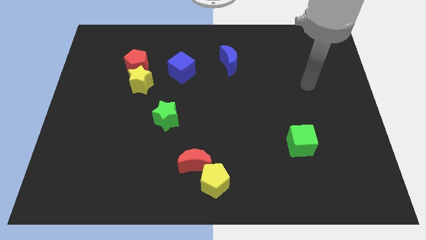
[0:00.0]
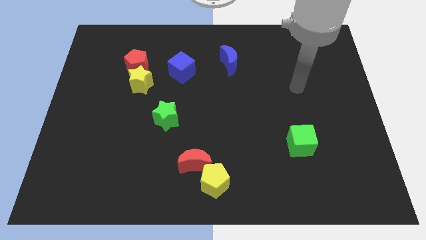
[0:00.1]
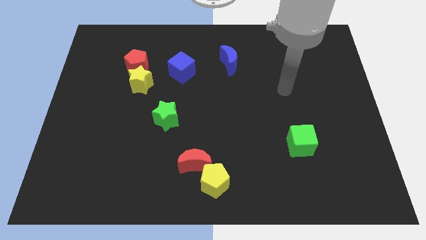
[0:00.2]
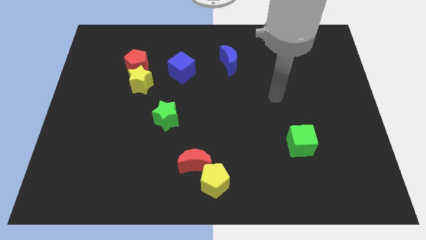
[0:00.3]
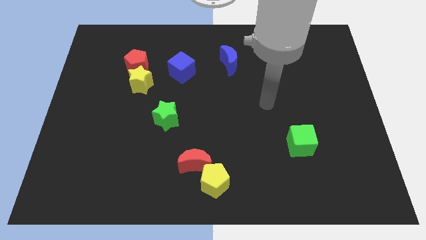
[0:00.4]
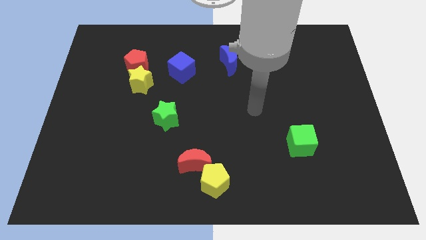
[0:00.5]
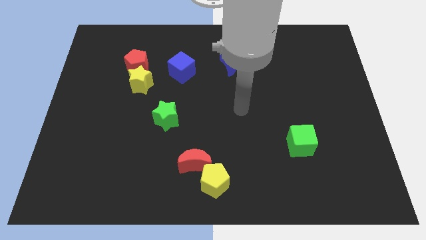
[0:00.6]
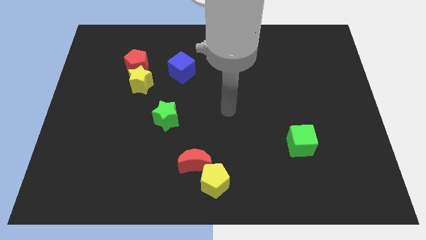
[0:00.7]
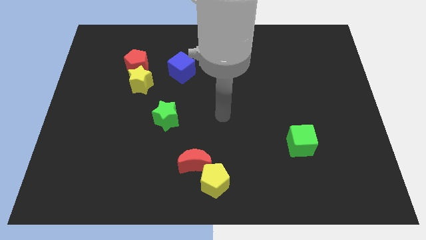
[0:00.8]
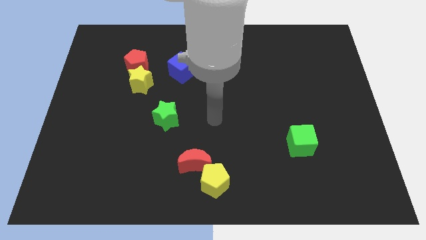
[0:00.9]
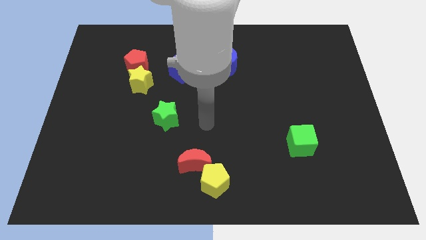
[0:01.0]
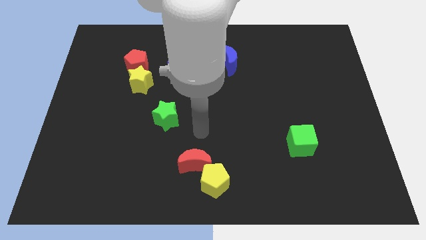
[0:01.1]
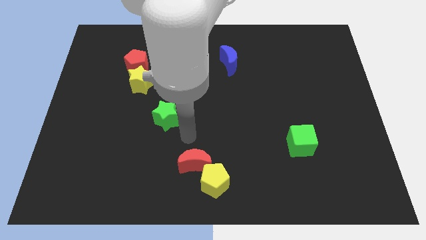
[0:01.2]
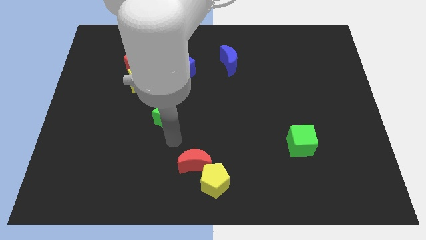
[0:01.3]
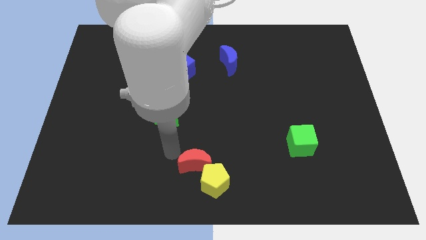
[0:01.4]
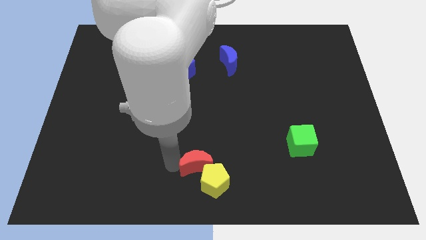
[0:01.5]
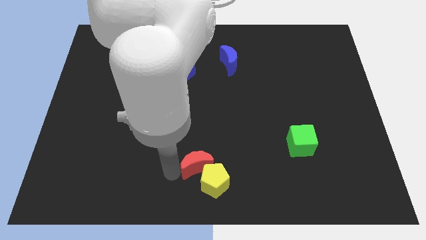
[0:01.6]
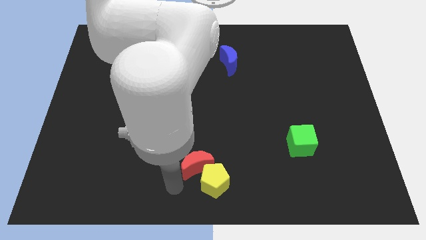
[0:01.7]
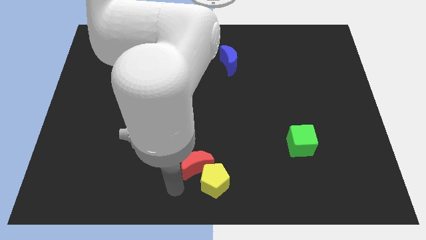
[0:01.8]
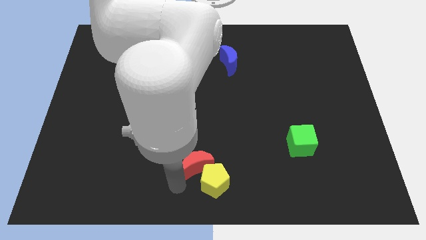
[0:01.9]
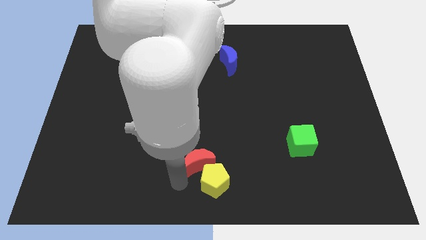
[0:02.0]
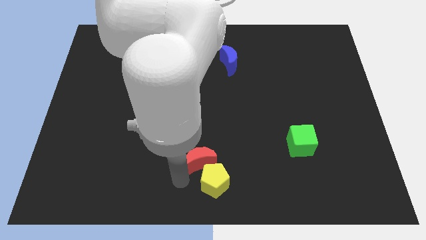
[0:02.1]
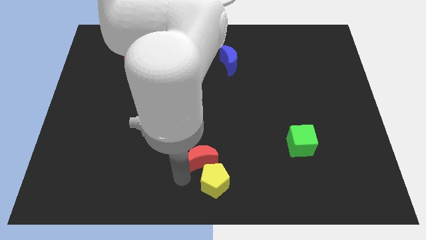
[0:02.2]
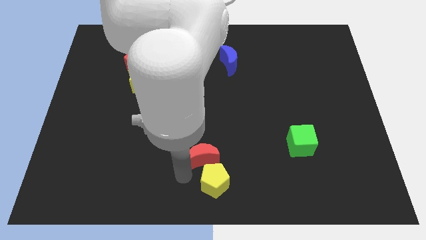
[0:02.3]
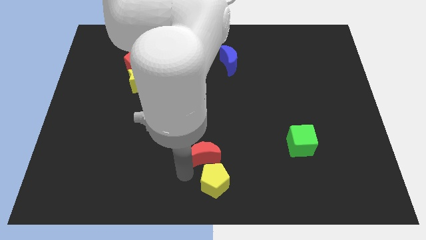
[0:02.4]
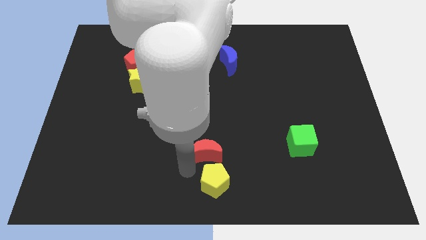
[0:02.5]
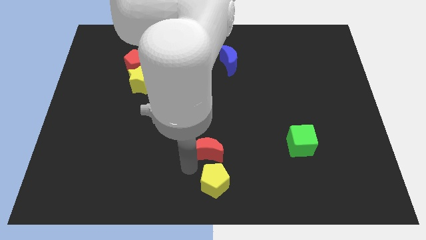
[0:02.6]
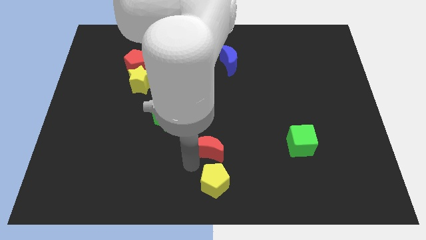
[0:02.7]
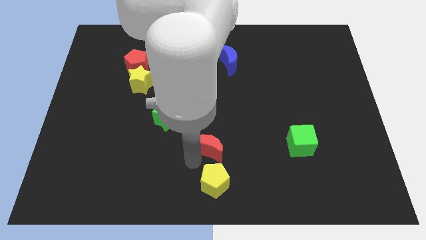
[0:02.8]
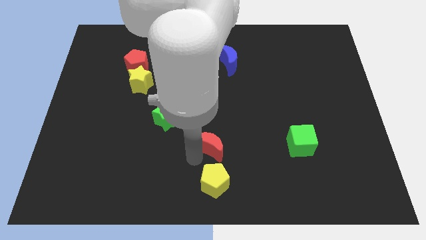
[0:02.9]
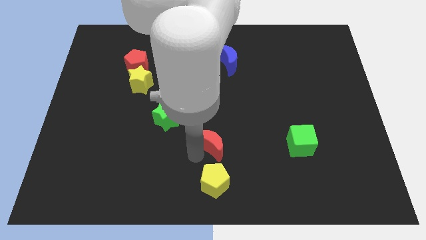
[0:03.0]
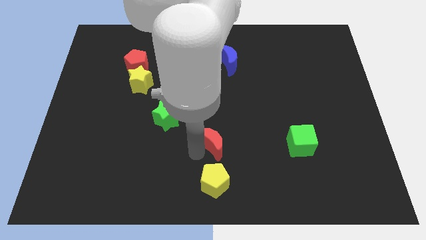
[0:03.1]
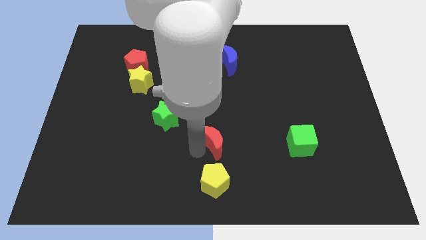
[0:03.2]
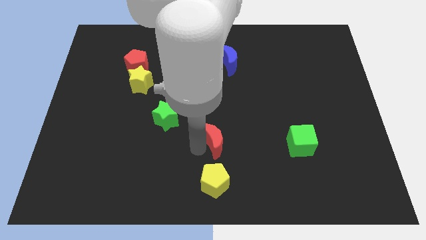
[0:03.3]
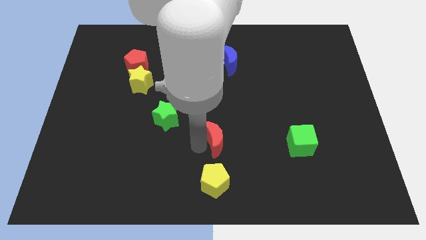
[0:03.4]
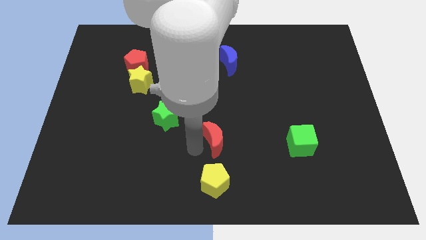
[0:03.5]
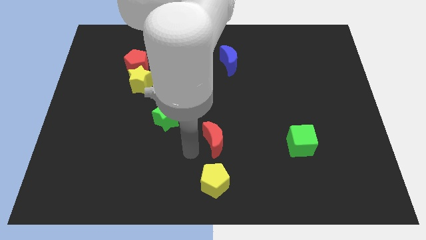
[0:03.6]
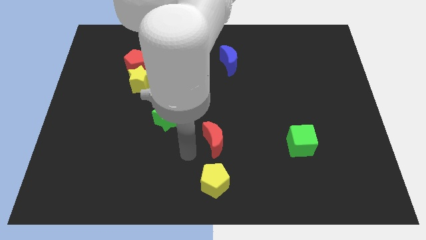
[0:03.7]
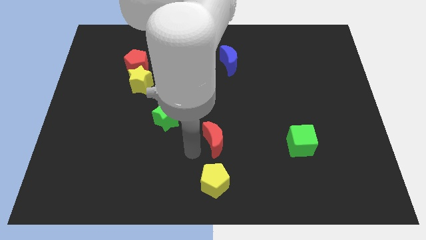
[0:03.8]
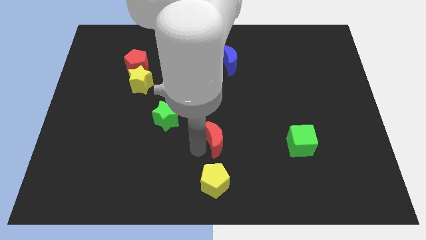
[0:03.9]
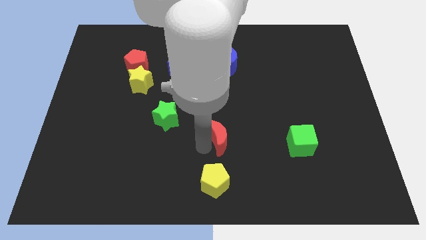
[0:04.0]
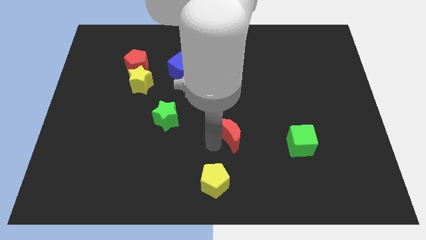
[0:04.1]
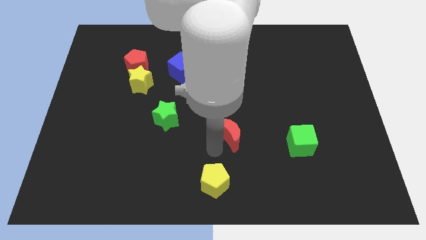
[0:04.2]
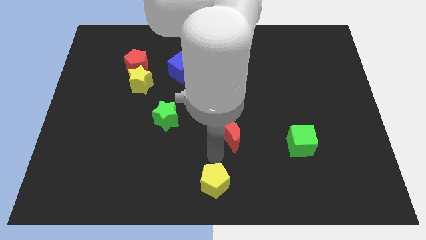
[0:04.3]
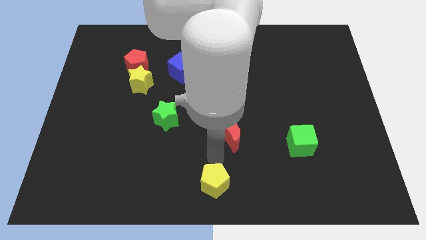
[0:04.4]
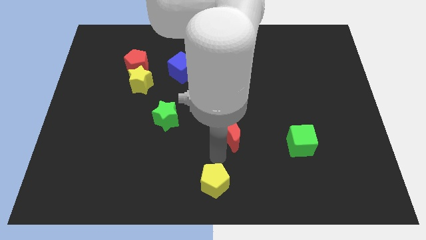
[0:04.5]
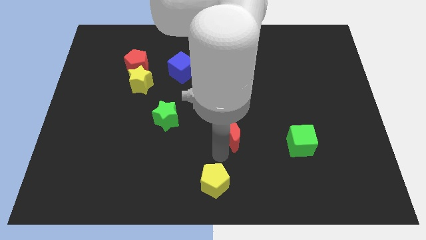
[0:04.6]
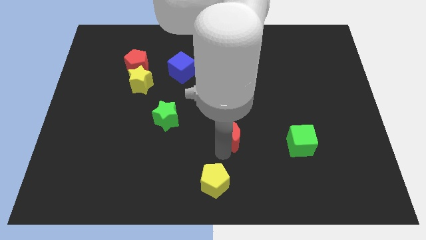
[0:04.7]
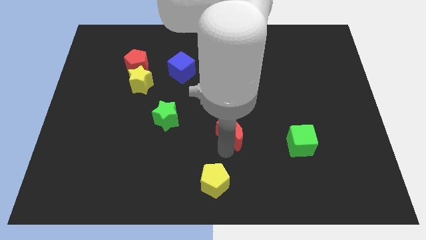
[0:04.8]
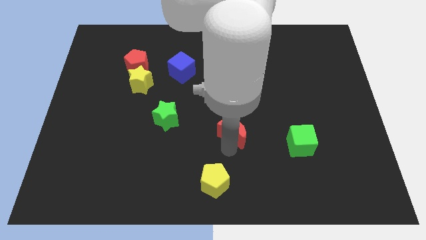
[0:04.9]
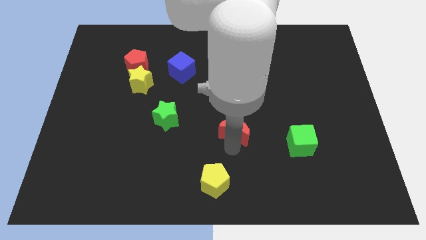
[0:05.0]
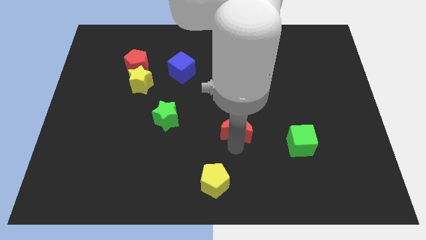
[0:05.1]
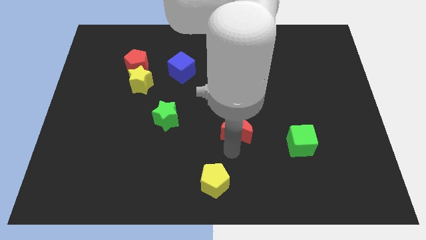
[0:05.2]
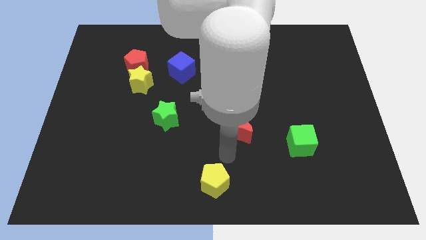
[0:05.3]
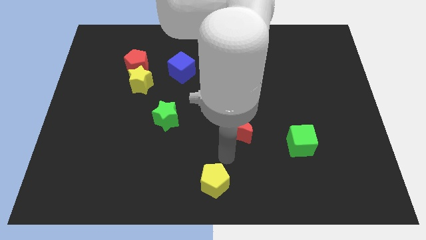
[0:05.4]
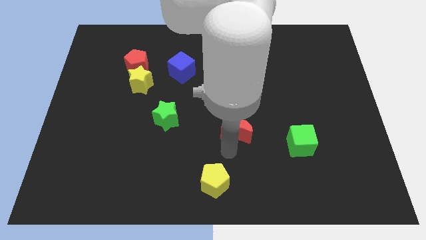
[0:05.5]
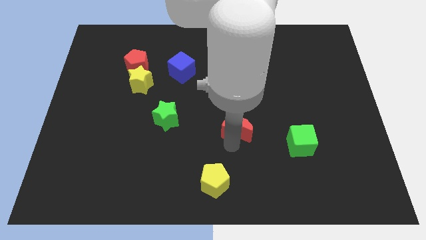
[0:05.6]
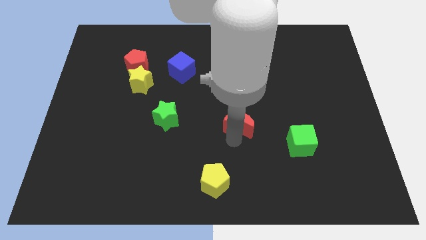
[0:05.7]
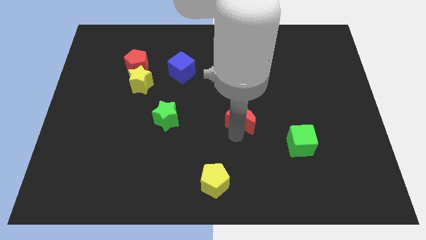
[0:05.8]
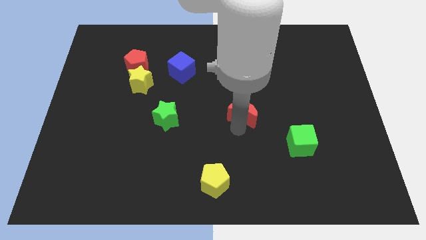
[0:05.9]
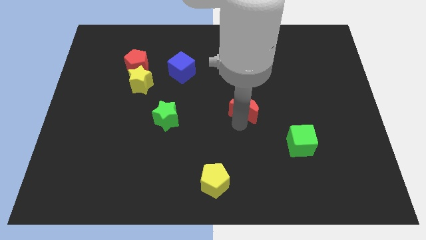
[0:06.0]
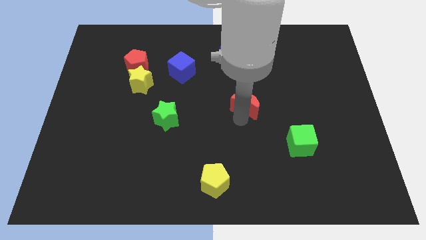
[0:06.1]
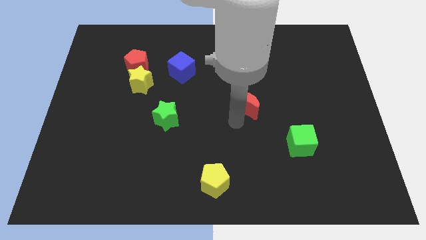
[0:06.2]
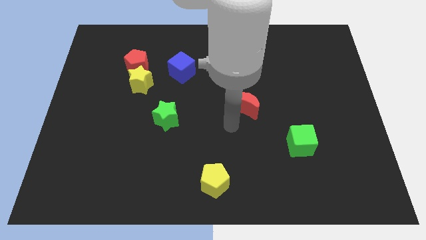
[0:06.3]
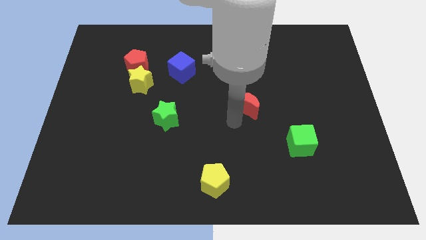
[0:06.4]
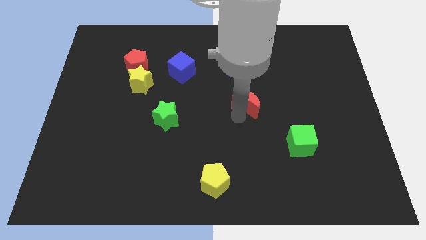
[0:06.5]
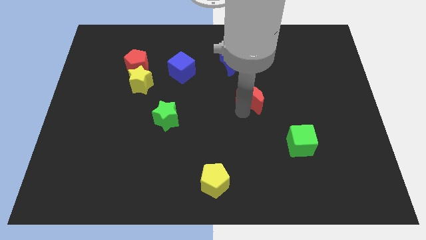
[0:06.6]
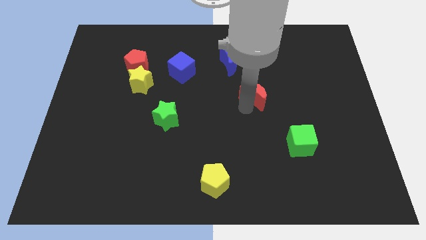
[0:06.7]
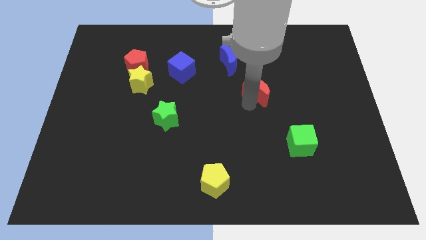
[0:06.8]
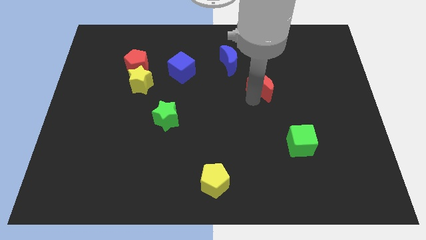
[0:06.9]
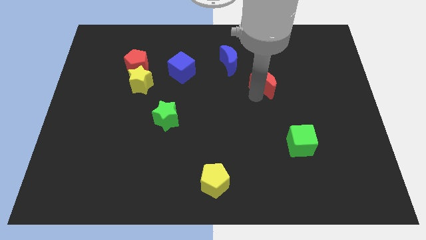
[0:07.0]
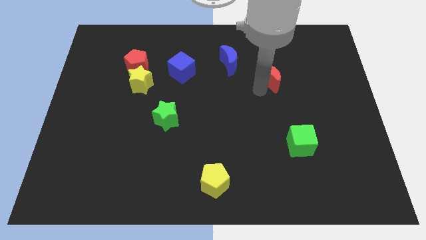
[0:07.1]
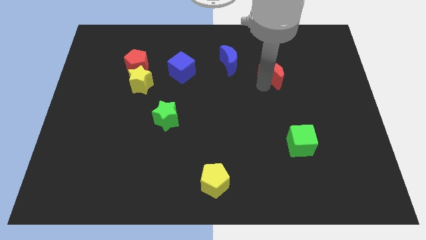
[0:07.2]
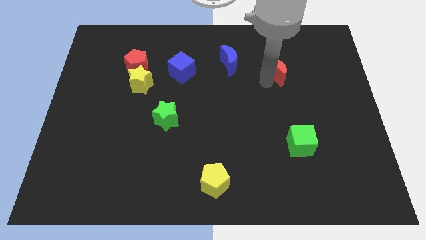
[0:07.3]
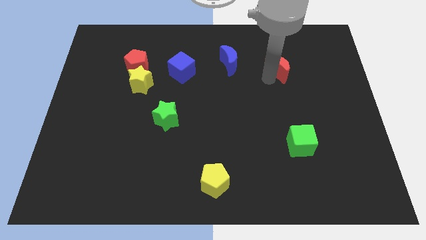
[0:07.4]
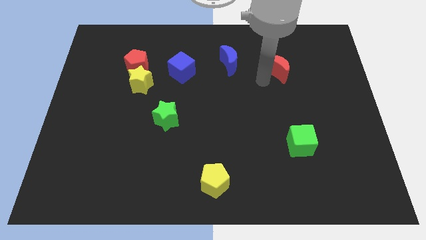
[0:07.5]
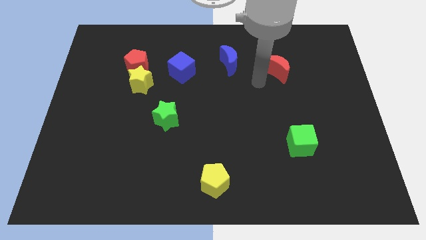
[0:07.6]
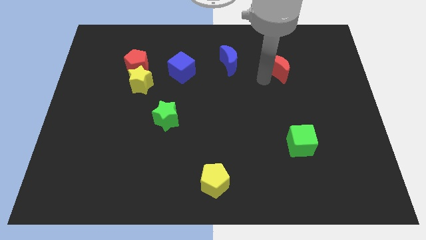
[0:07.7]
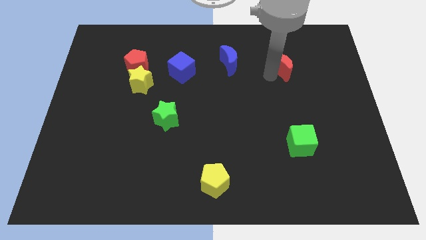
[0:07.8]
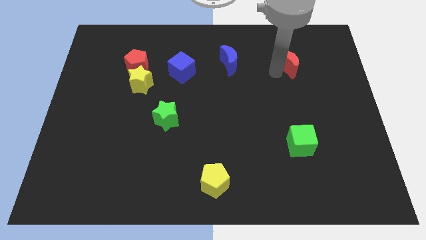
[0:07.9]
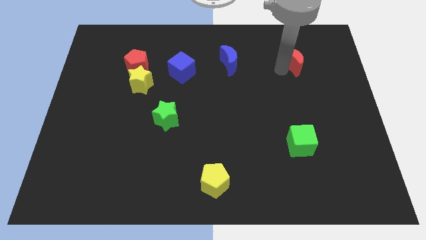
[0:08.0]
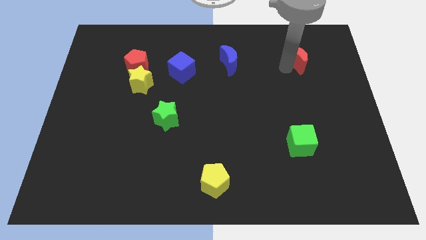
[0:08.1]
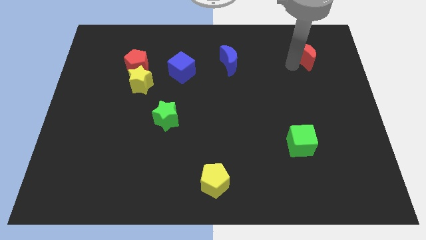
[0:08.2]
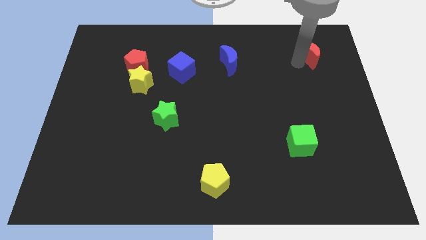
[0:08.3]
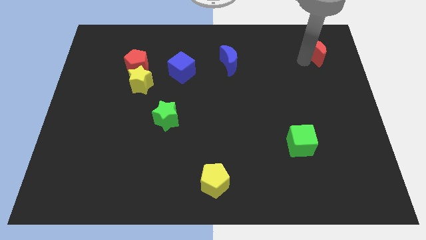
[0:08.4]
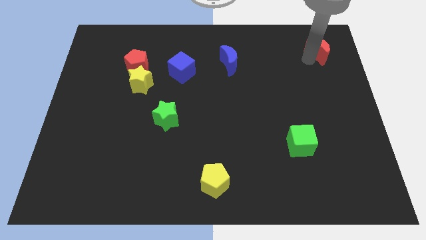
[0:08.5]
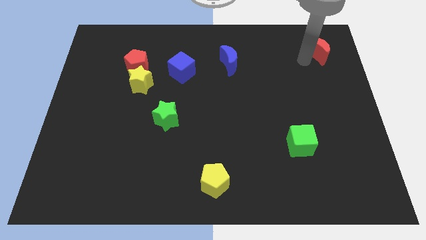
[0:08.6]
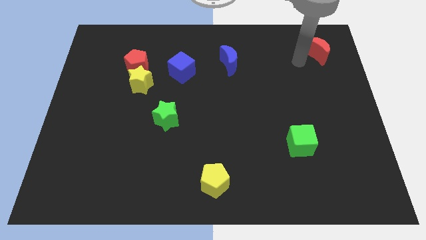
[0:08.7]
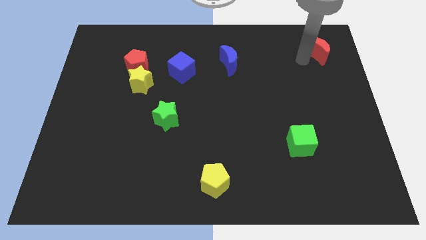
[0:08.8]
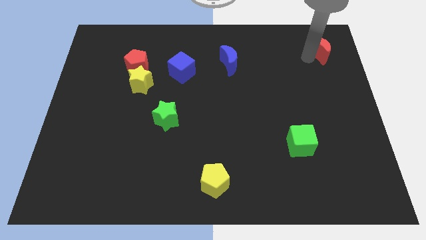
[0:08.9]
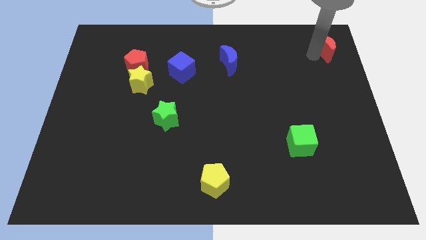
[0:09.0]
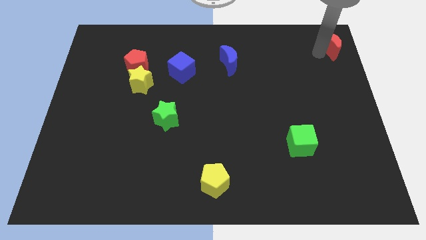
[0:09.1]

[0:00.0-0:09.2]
push the red moon to the upper right corner
